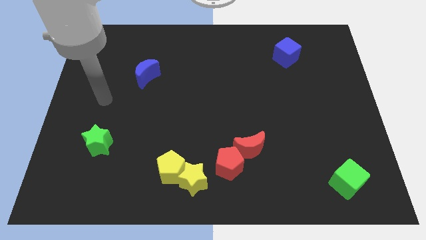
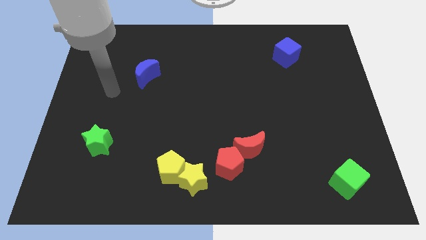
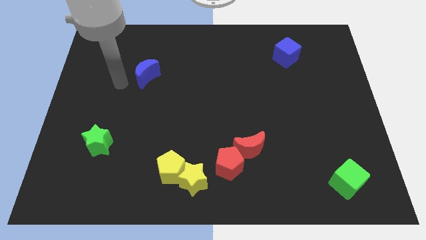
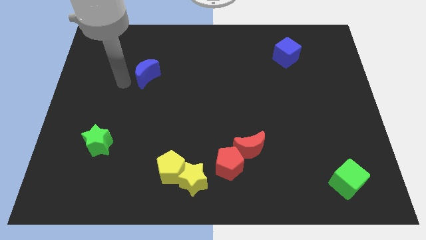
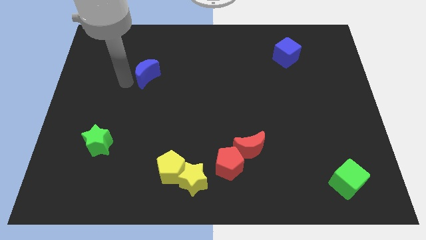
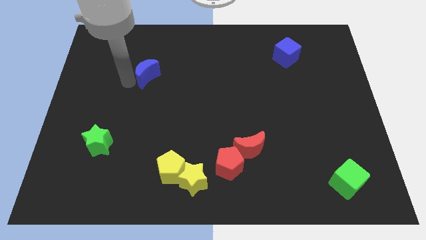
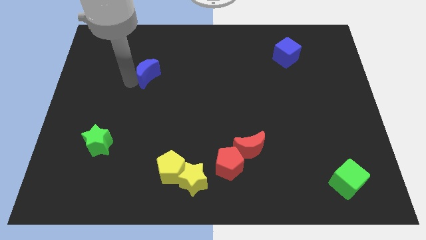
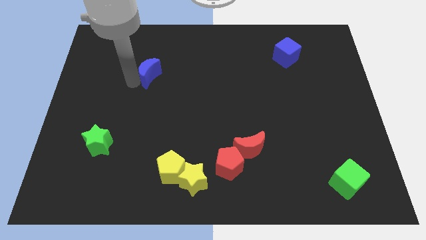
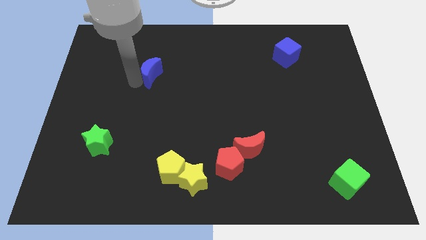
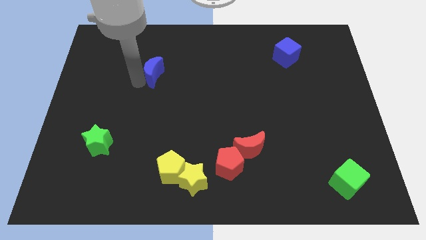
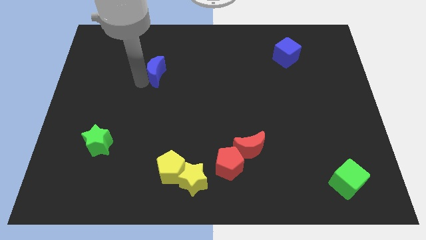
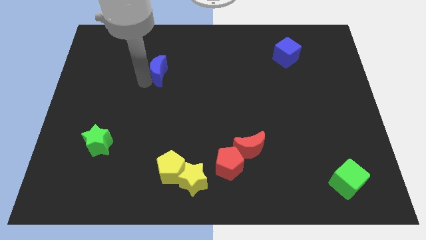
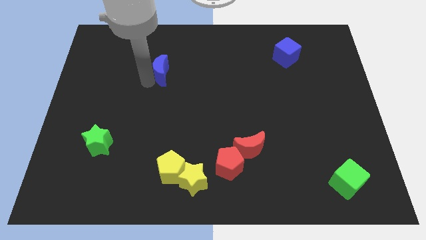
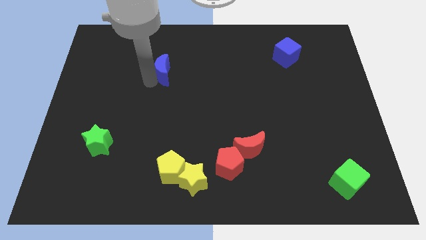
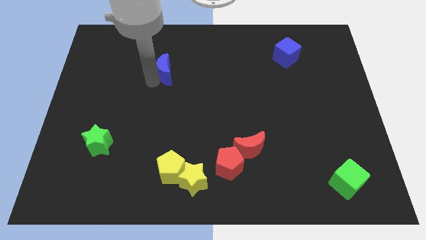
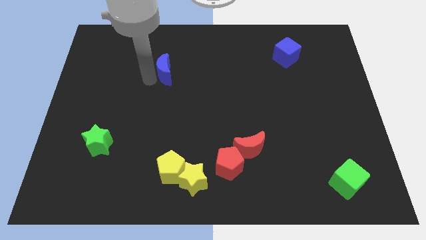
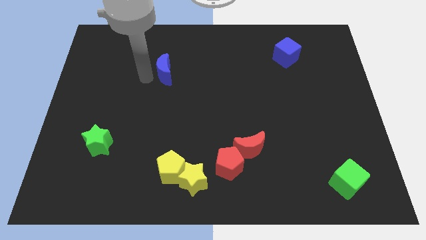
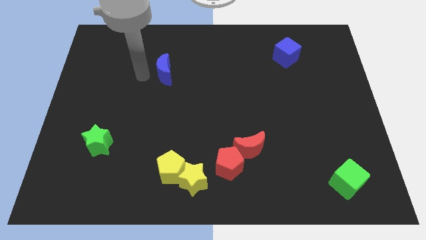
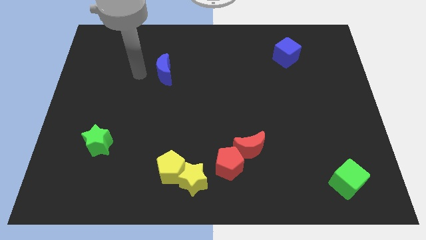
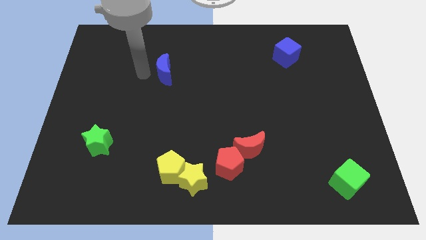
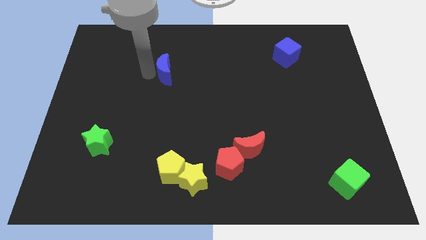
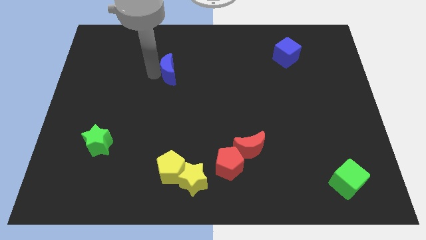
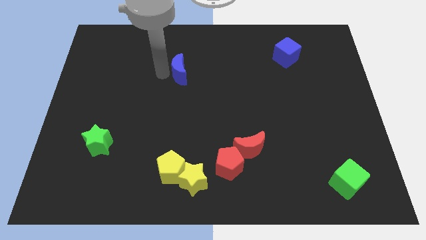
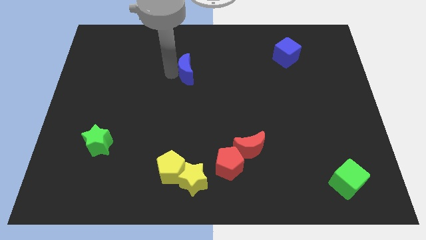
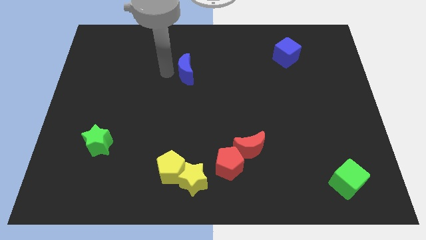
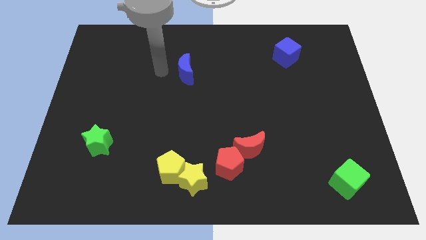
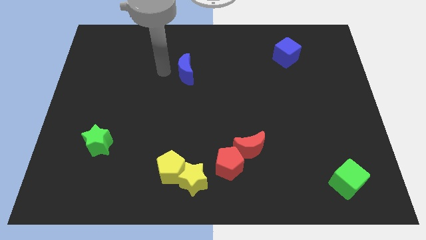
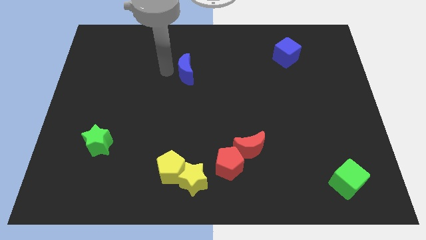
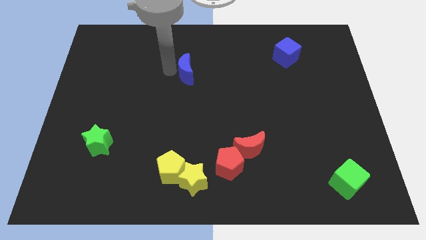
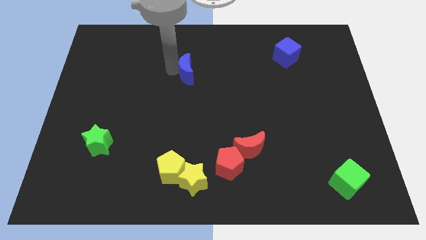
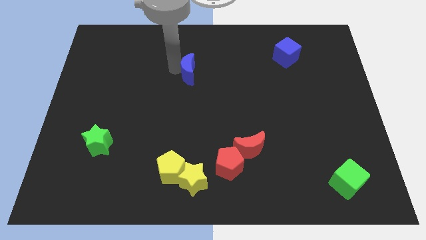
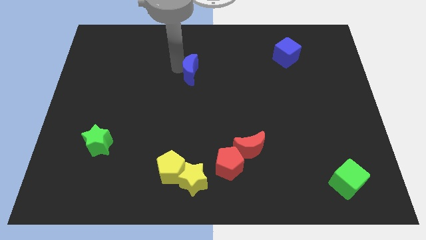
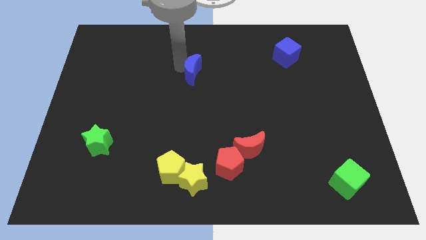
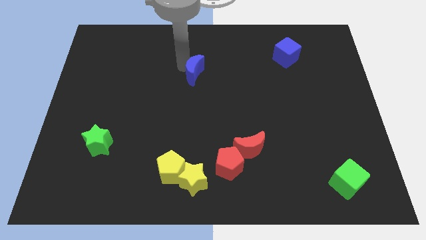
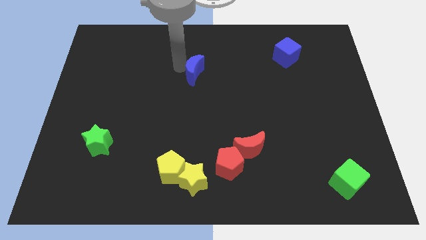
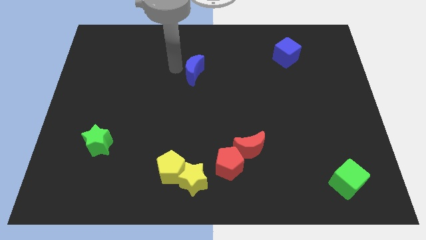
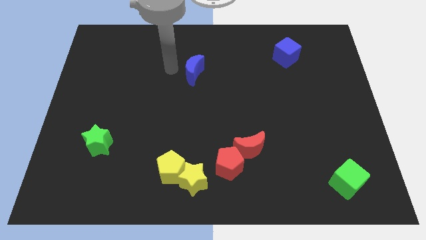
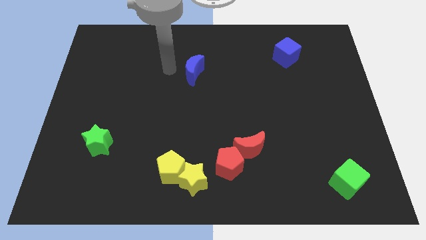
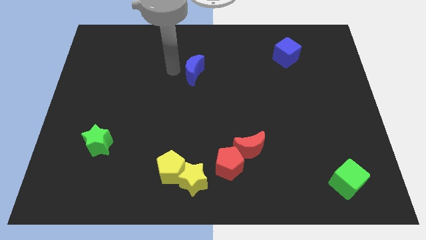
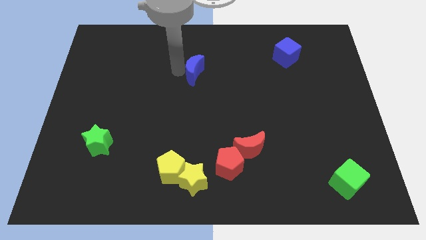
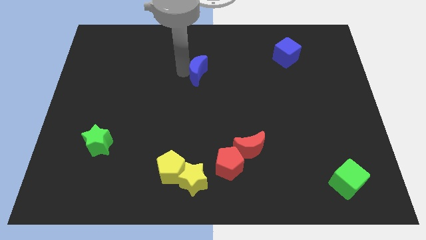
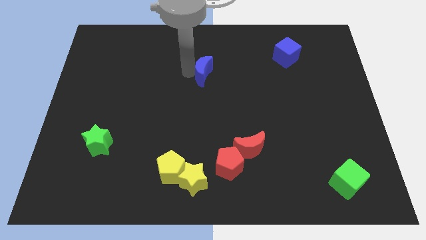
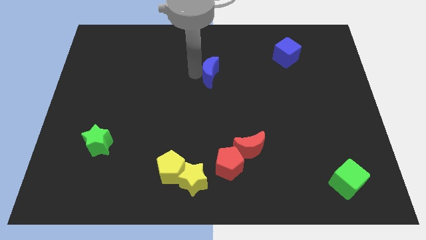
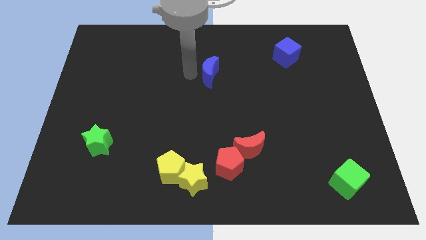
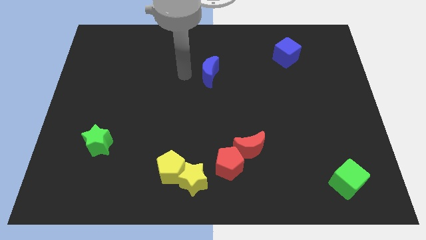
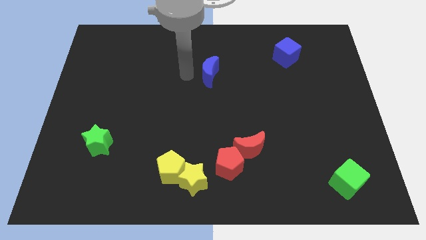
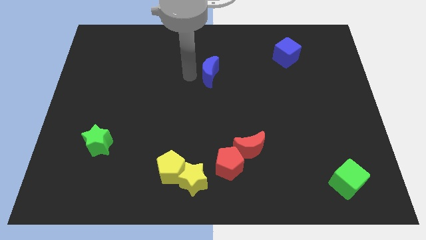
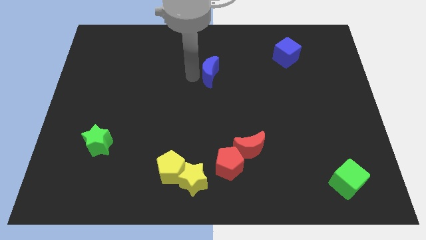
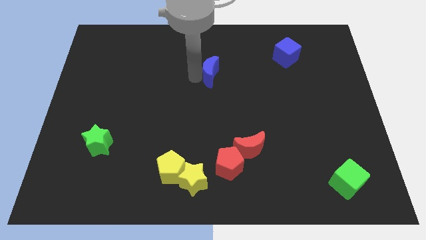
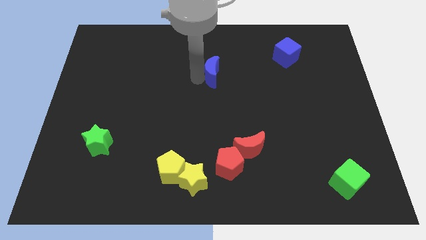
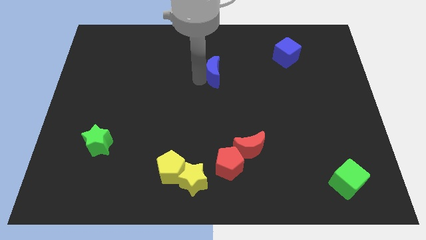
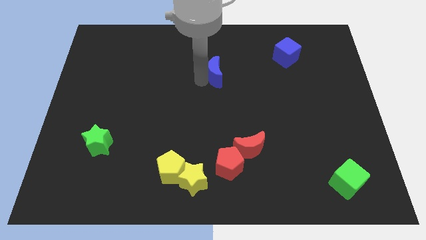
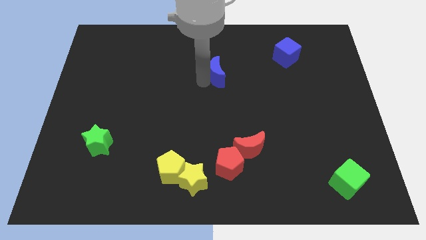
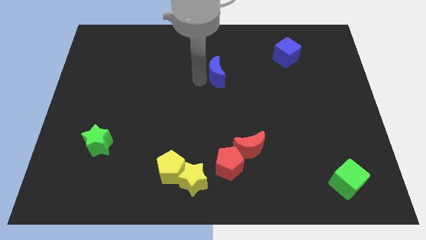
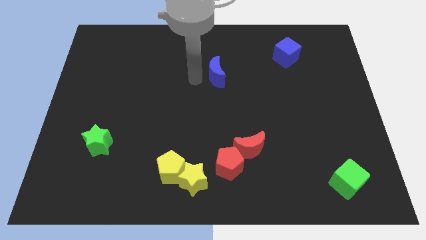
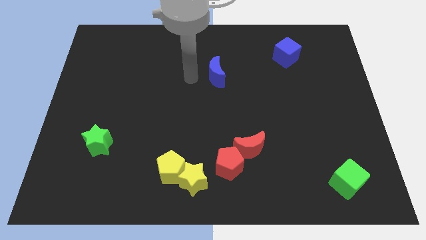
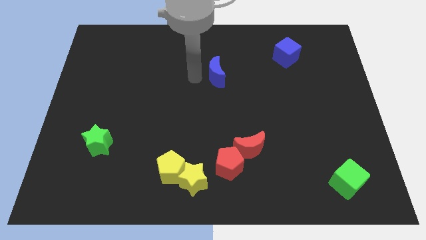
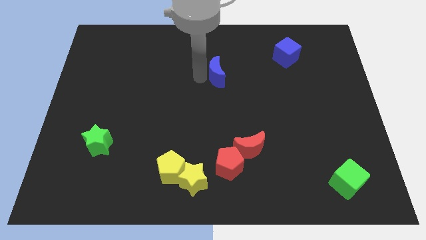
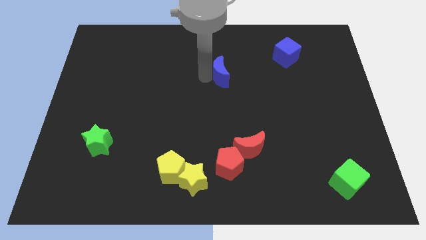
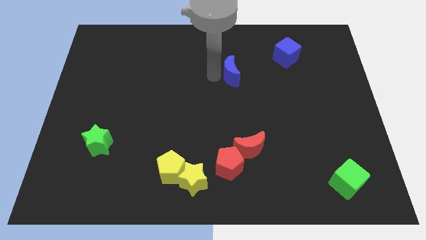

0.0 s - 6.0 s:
move the blue moon right

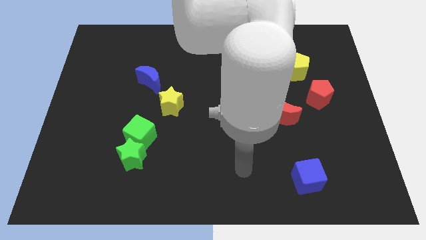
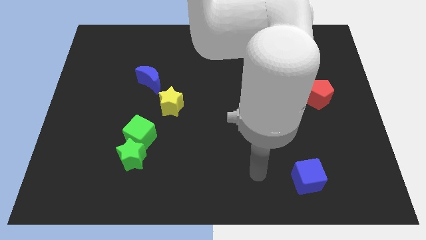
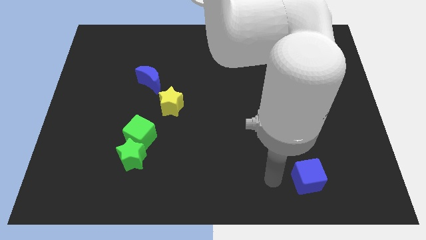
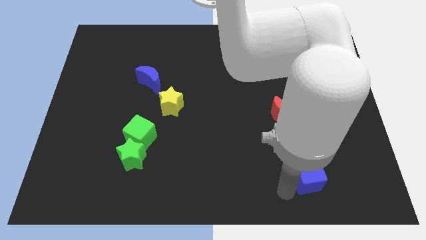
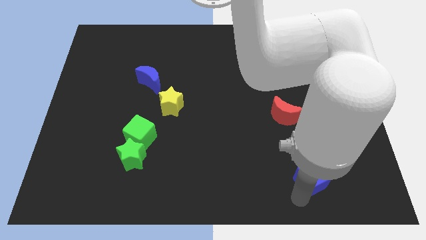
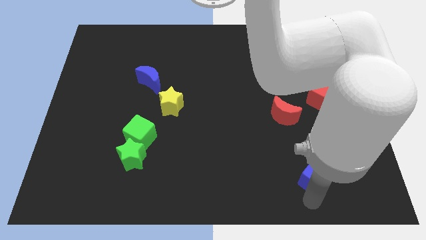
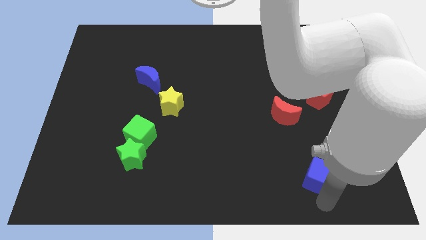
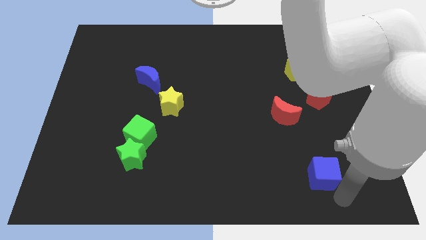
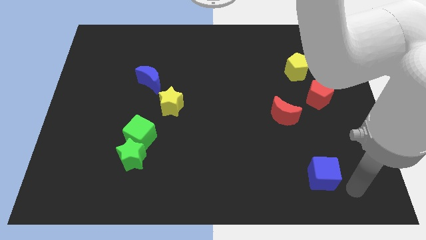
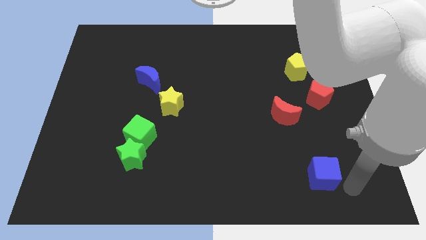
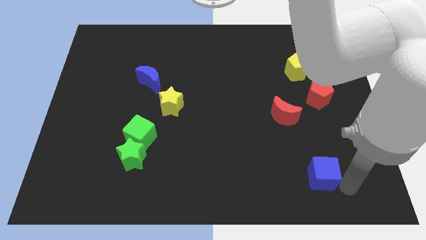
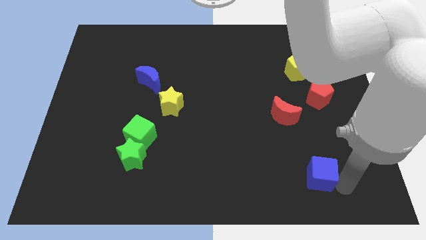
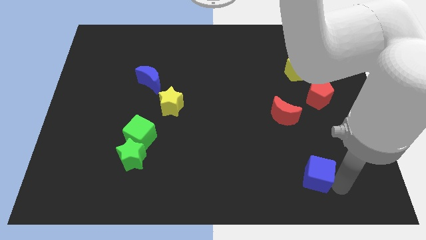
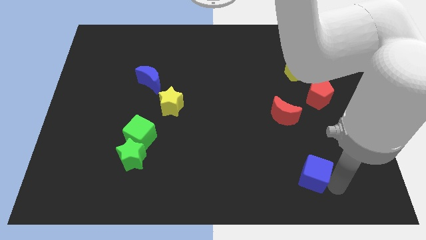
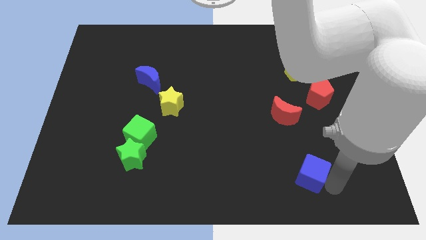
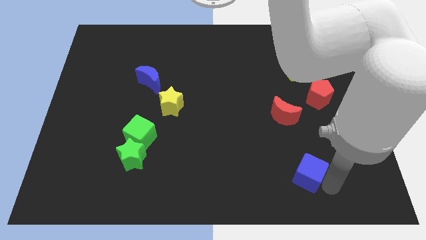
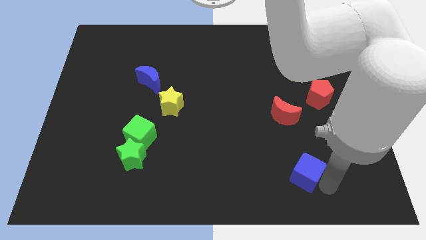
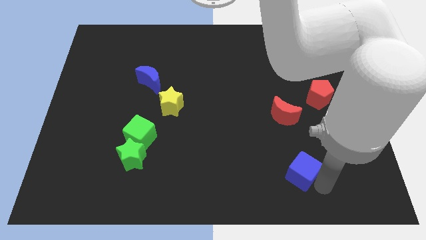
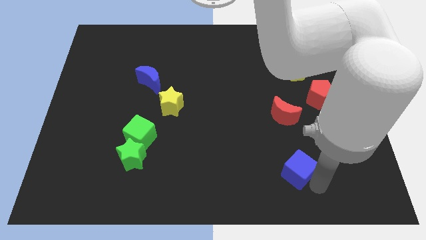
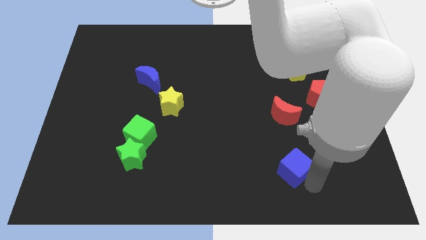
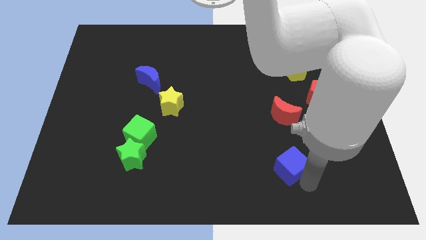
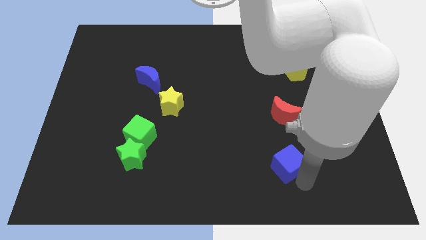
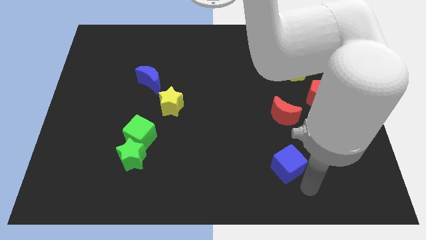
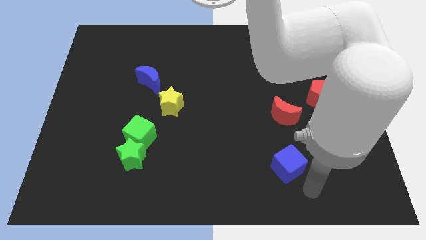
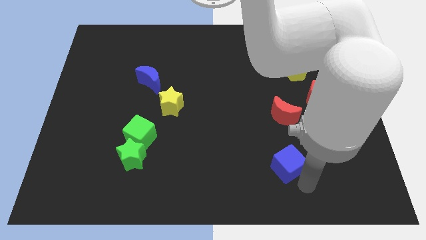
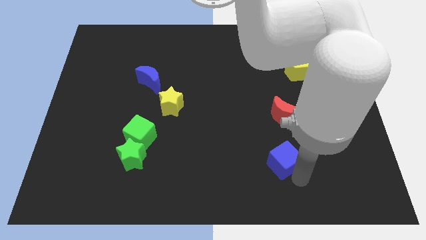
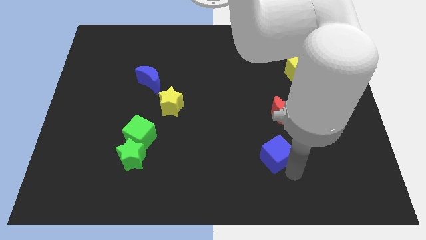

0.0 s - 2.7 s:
move the blue cube upwards and to the left slightly
